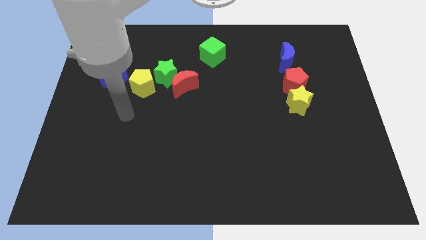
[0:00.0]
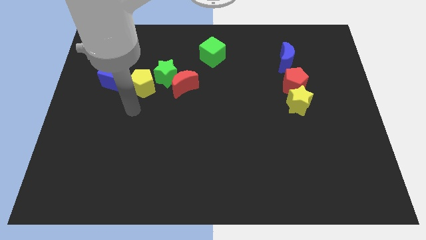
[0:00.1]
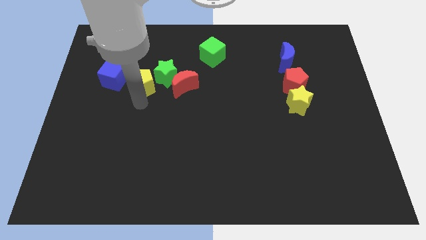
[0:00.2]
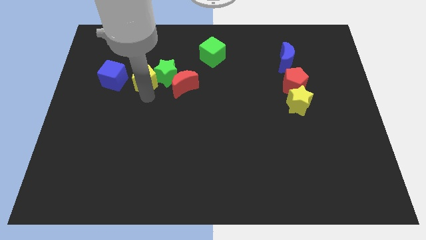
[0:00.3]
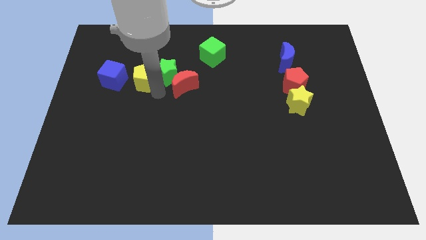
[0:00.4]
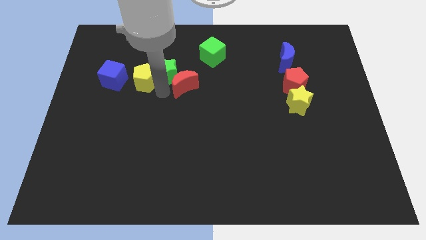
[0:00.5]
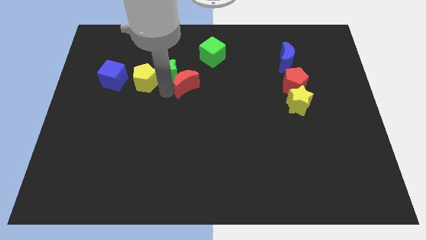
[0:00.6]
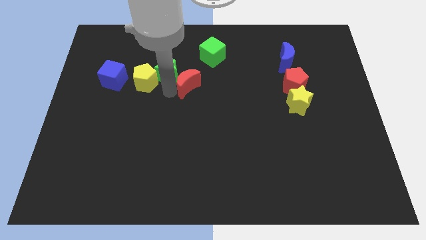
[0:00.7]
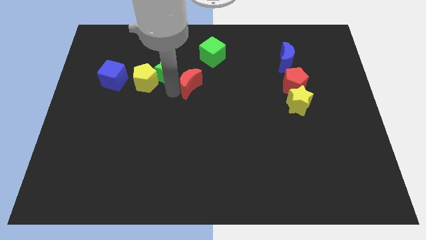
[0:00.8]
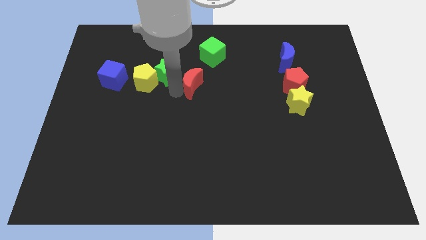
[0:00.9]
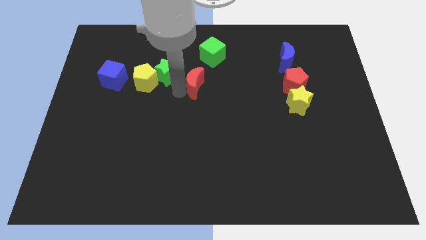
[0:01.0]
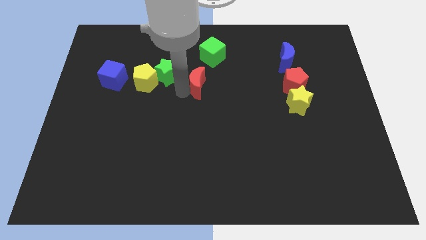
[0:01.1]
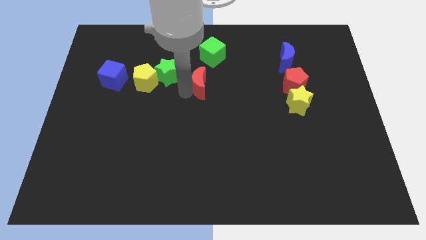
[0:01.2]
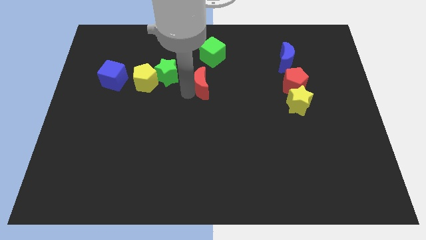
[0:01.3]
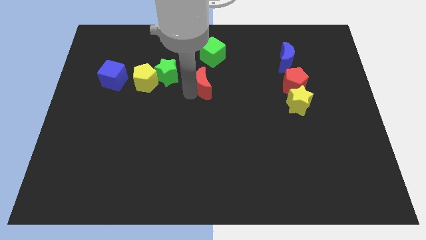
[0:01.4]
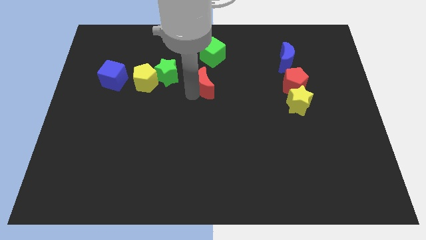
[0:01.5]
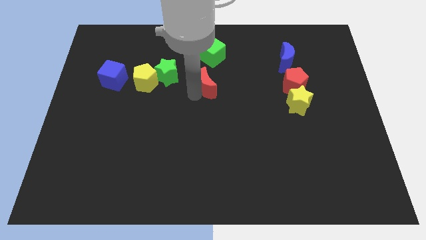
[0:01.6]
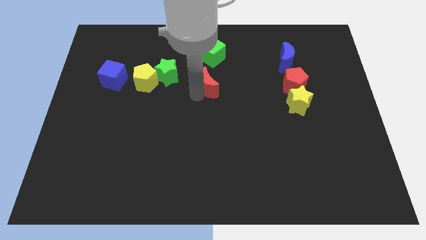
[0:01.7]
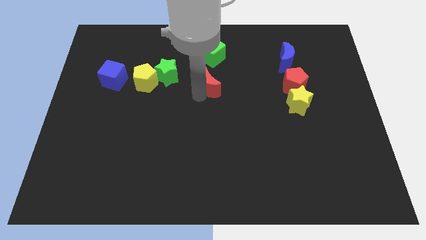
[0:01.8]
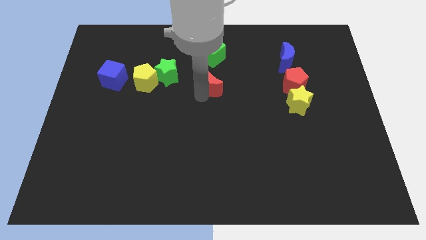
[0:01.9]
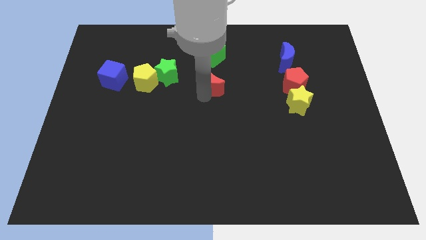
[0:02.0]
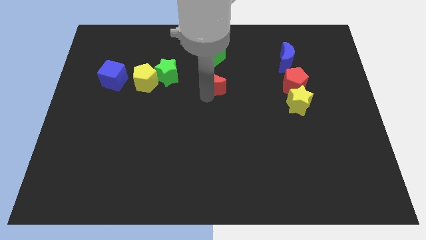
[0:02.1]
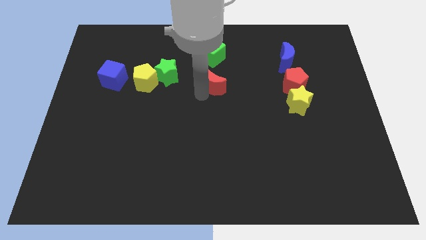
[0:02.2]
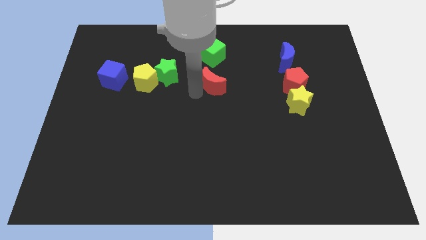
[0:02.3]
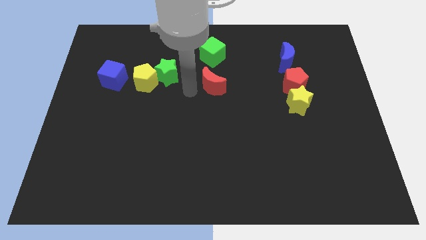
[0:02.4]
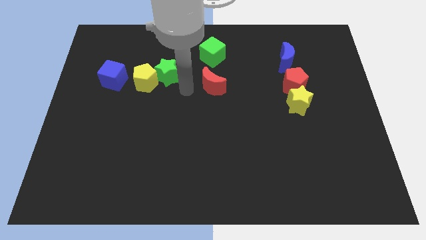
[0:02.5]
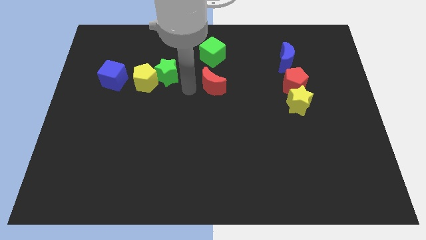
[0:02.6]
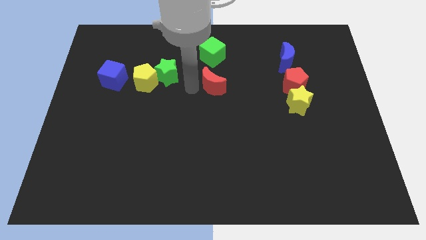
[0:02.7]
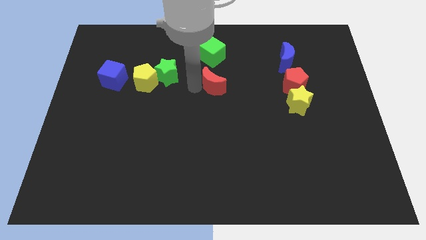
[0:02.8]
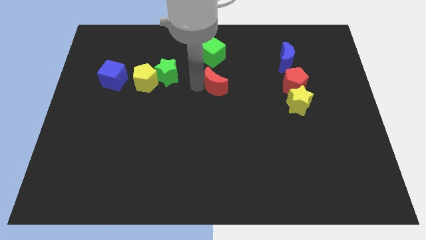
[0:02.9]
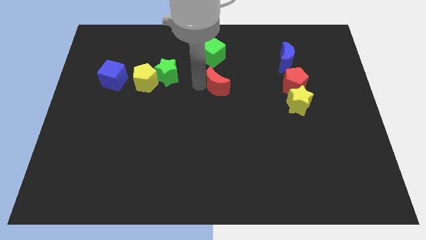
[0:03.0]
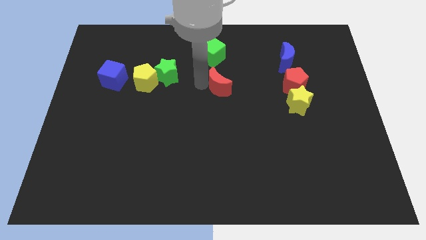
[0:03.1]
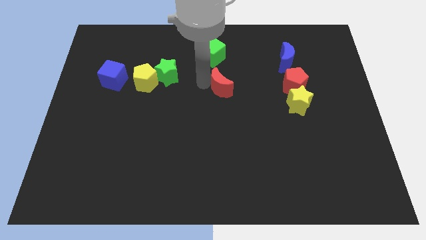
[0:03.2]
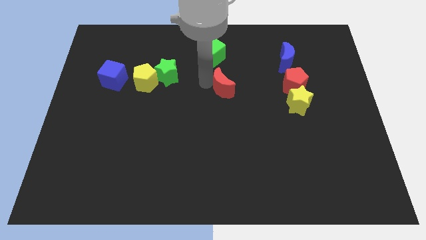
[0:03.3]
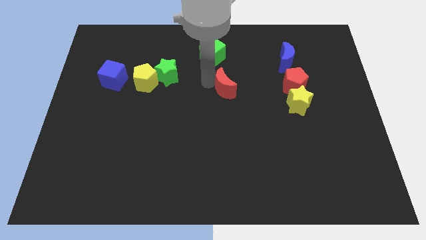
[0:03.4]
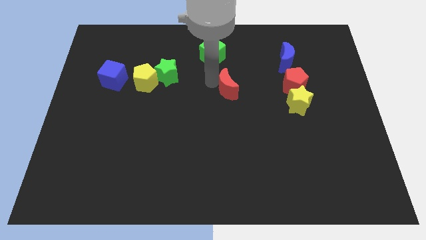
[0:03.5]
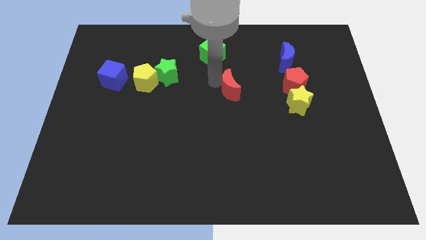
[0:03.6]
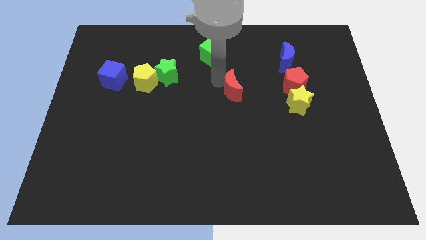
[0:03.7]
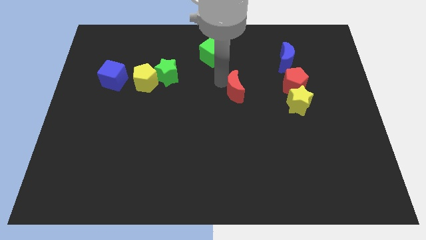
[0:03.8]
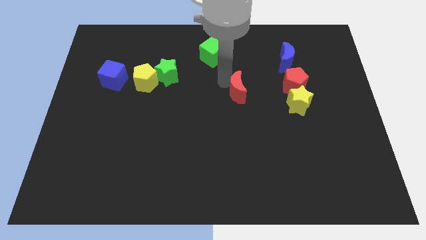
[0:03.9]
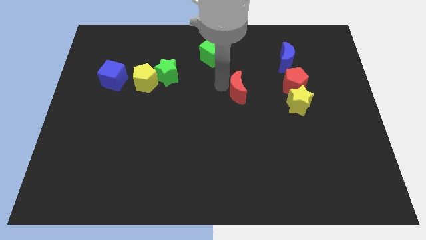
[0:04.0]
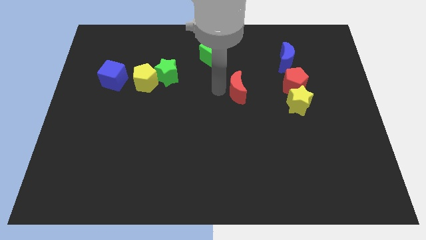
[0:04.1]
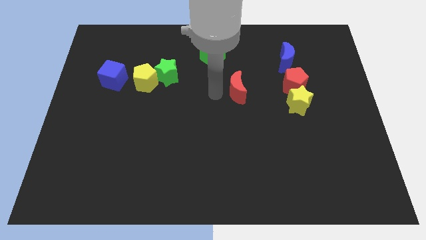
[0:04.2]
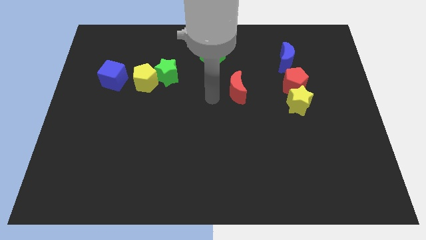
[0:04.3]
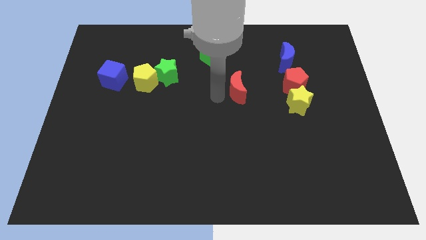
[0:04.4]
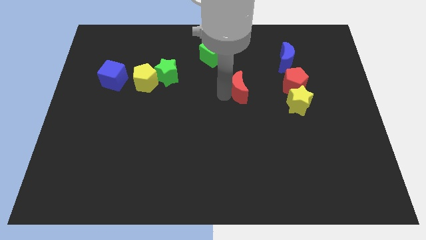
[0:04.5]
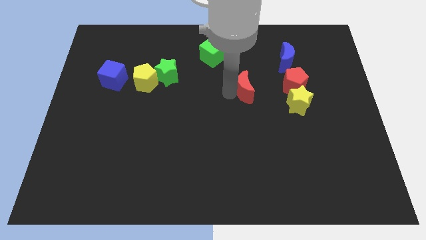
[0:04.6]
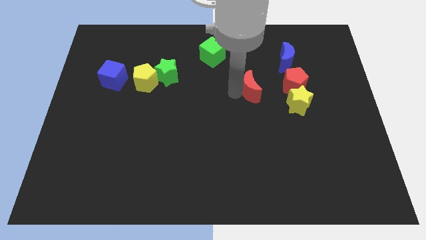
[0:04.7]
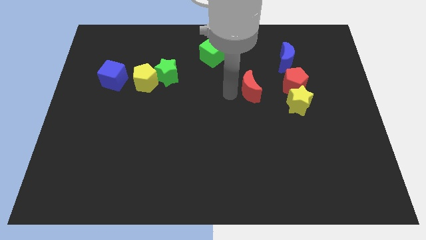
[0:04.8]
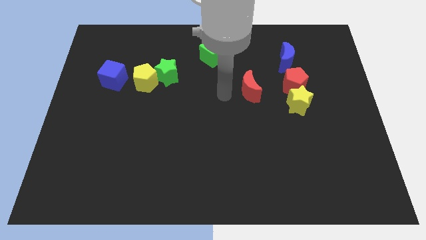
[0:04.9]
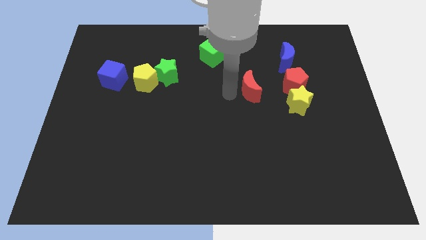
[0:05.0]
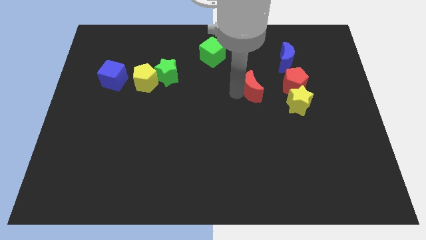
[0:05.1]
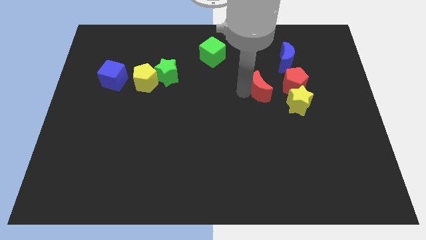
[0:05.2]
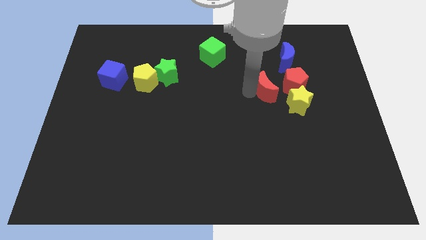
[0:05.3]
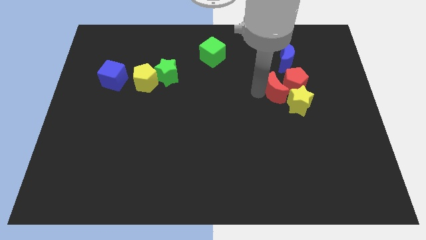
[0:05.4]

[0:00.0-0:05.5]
put the red moon close to the red pentagon

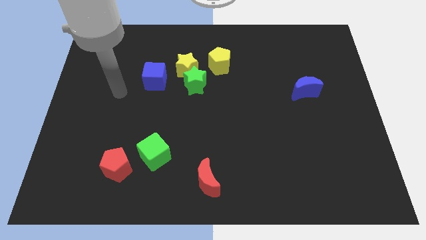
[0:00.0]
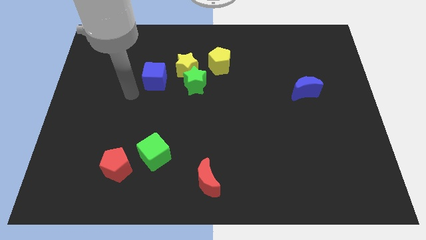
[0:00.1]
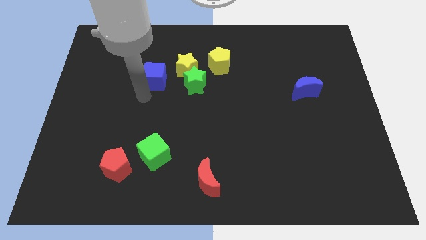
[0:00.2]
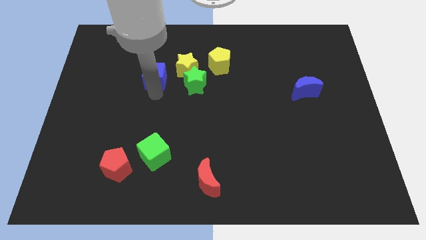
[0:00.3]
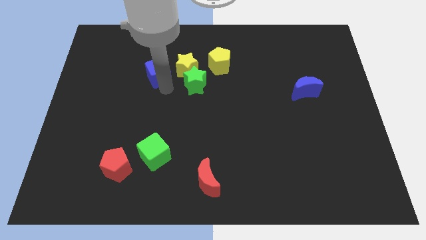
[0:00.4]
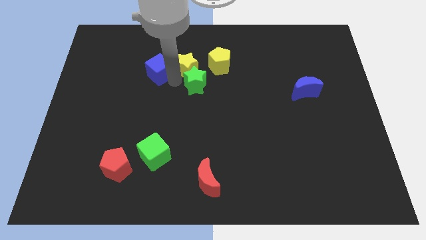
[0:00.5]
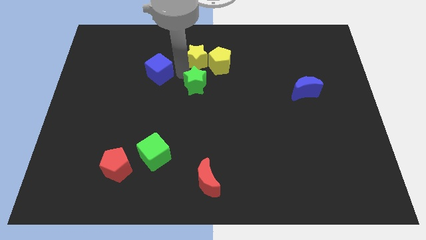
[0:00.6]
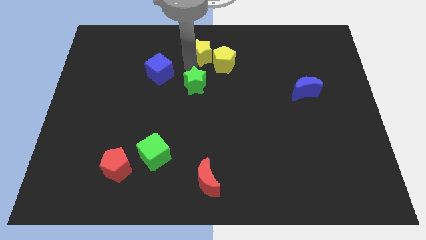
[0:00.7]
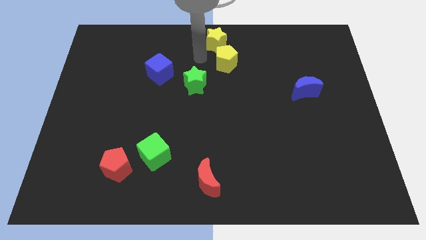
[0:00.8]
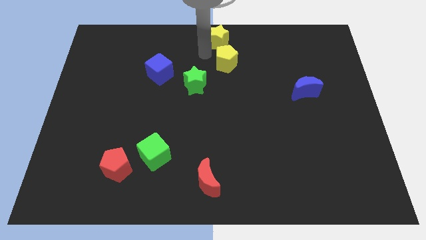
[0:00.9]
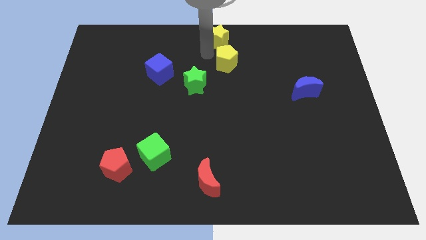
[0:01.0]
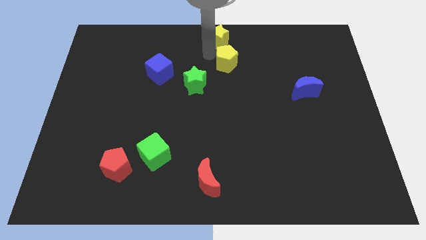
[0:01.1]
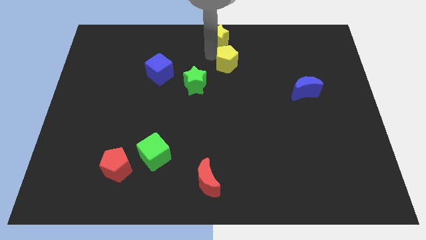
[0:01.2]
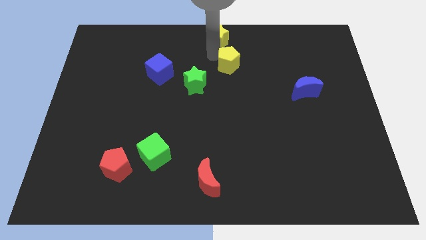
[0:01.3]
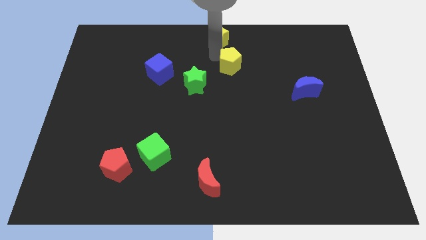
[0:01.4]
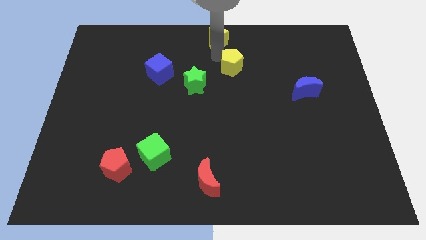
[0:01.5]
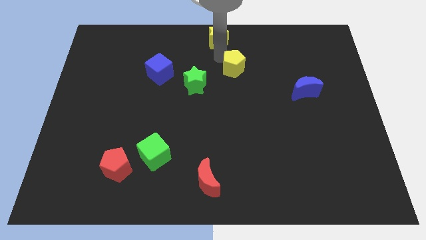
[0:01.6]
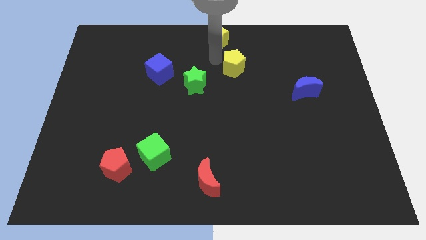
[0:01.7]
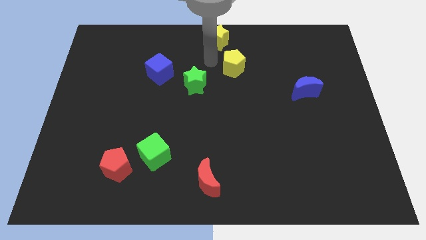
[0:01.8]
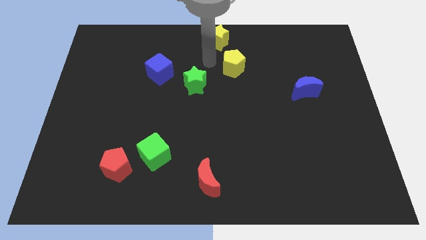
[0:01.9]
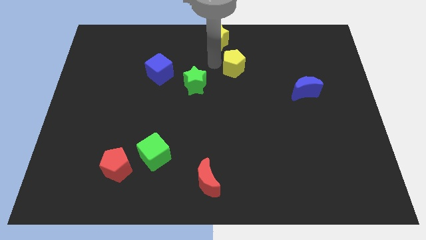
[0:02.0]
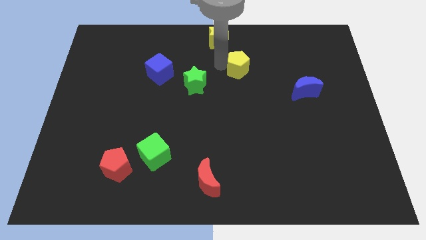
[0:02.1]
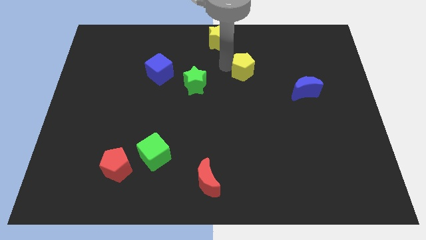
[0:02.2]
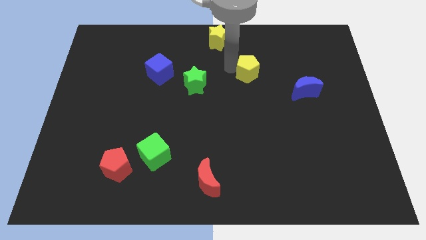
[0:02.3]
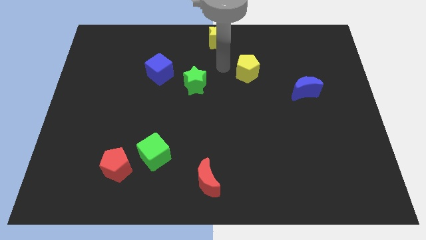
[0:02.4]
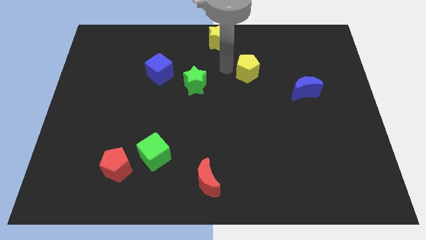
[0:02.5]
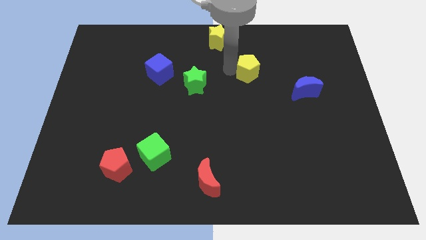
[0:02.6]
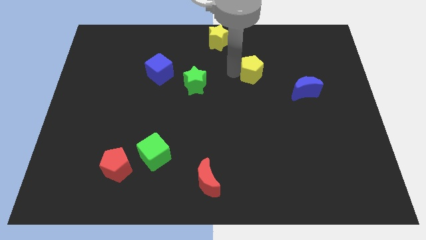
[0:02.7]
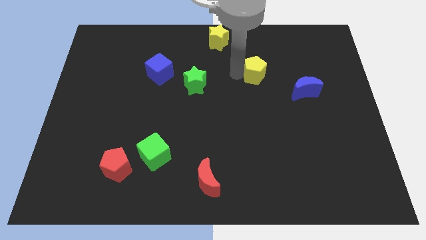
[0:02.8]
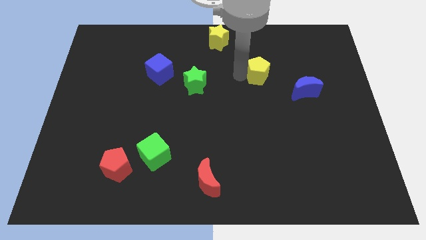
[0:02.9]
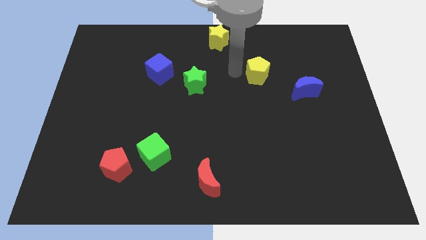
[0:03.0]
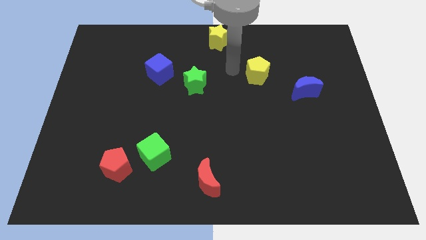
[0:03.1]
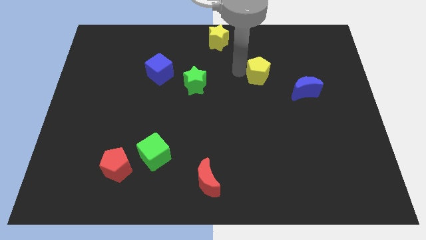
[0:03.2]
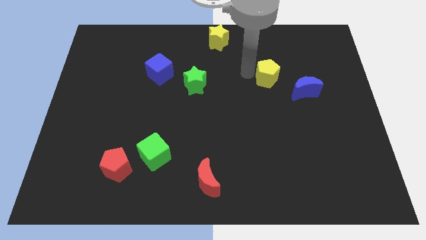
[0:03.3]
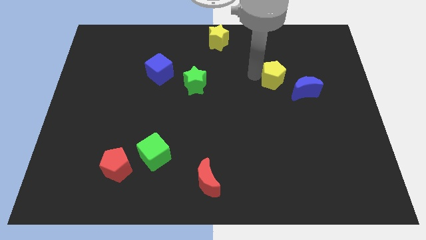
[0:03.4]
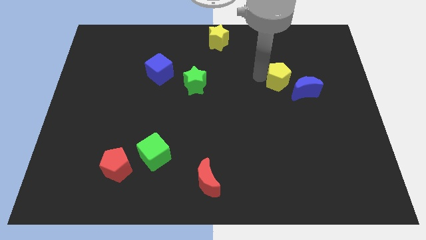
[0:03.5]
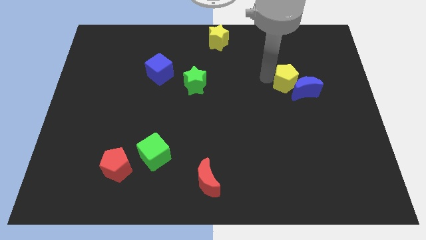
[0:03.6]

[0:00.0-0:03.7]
put the yellow pentagon close to the blue moon
